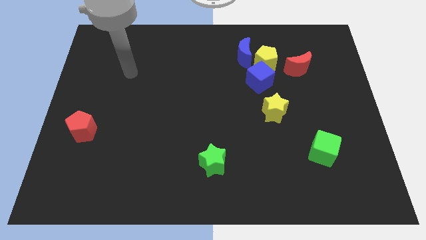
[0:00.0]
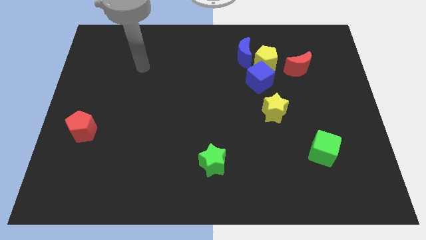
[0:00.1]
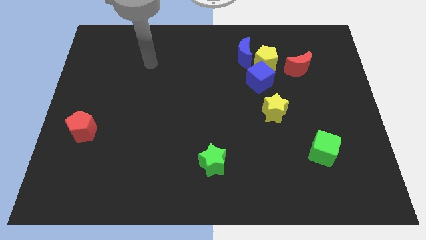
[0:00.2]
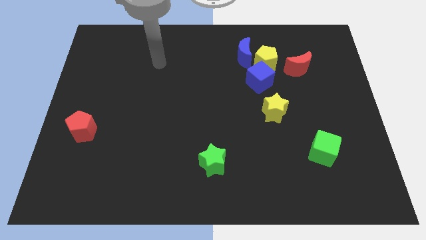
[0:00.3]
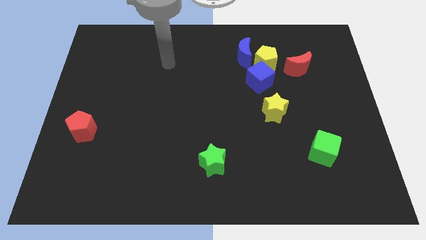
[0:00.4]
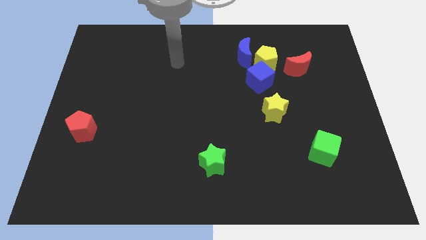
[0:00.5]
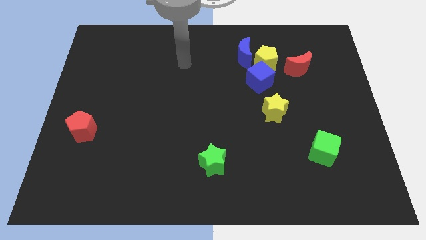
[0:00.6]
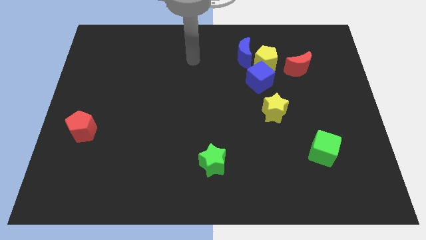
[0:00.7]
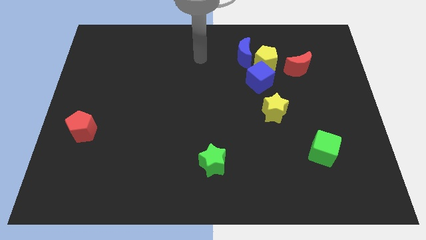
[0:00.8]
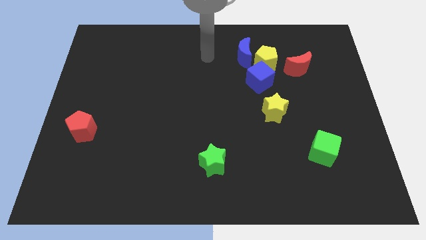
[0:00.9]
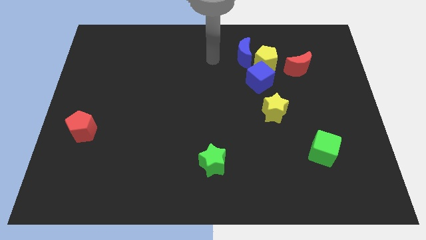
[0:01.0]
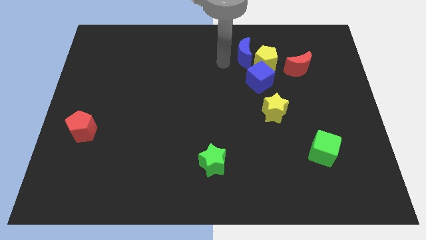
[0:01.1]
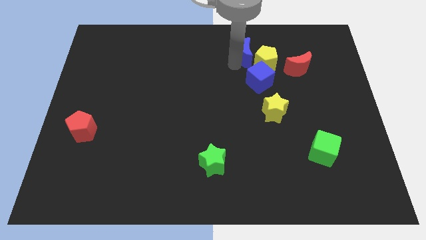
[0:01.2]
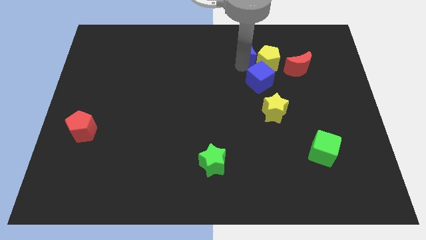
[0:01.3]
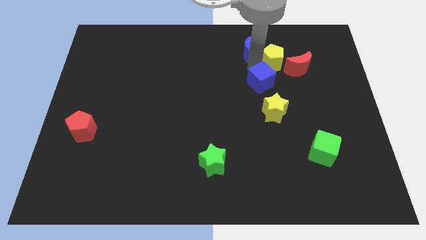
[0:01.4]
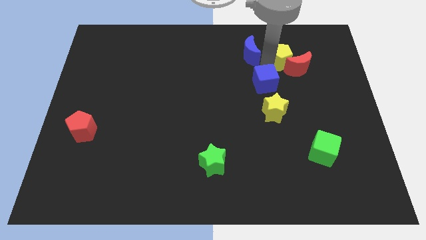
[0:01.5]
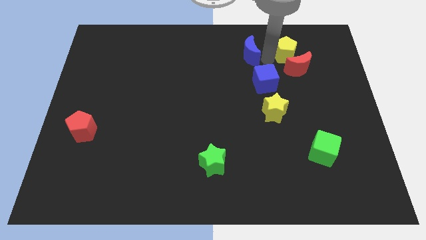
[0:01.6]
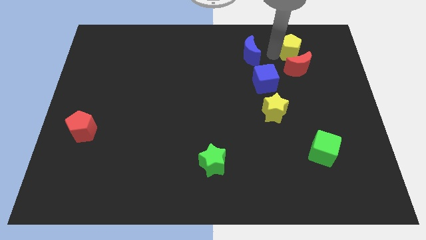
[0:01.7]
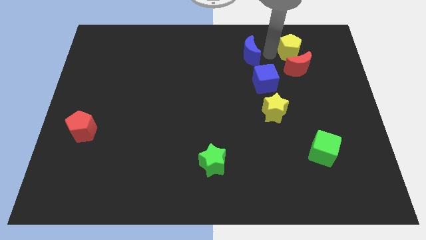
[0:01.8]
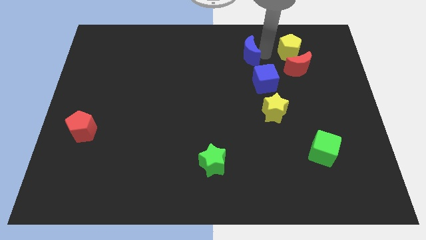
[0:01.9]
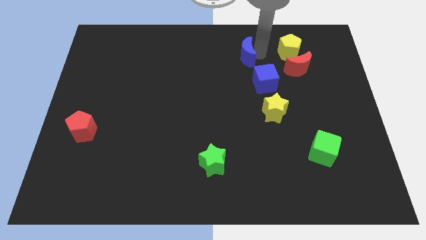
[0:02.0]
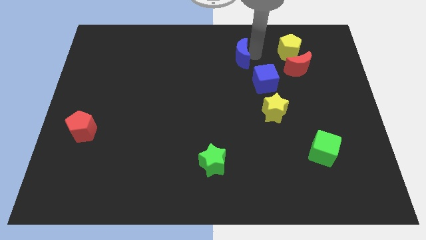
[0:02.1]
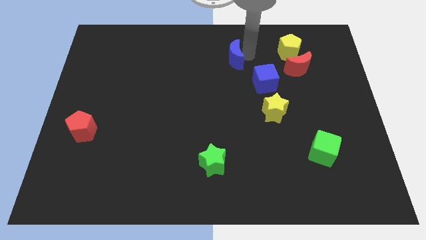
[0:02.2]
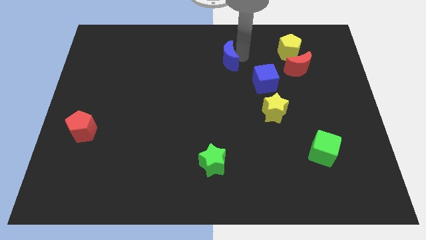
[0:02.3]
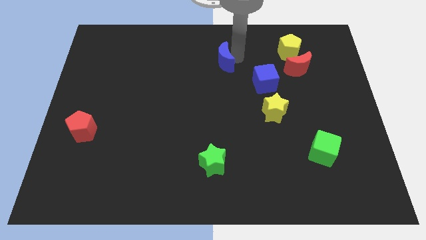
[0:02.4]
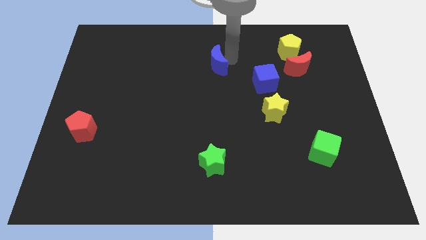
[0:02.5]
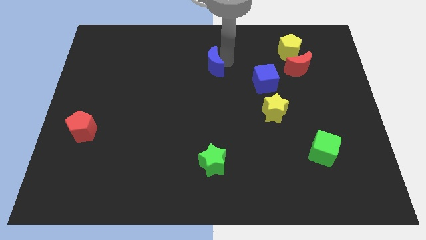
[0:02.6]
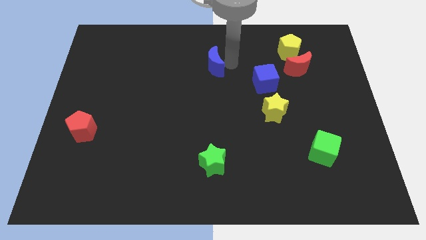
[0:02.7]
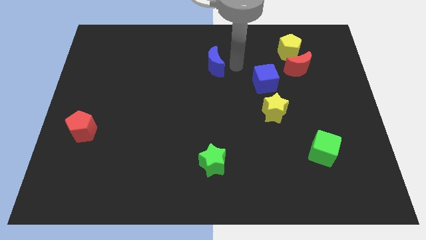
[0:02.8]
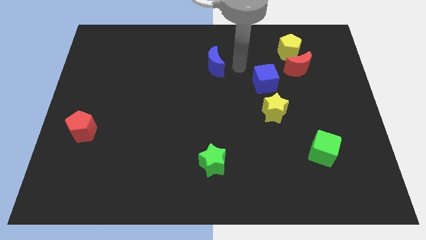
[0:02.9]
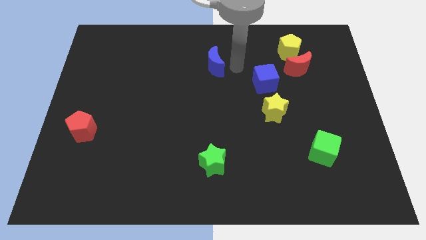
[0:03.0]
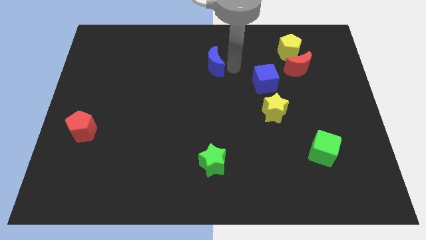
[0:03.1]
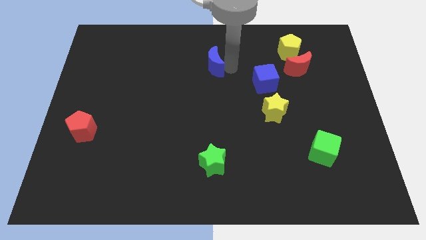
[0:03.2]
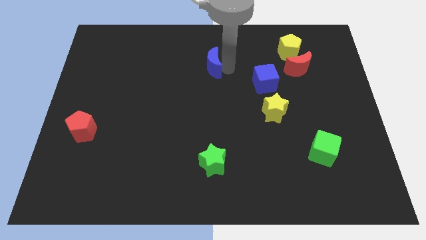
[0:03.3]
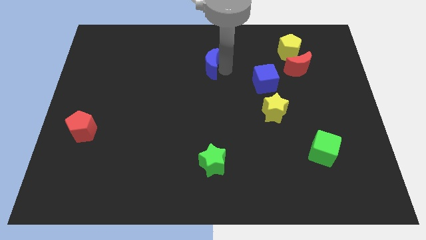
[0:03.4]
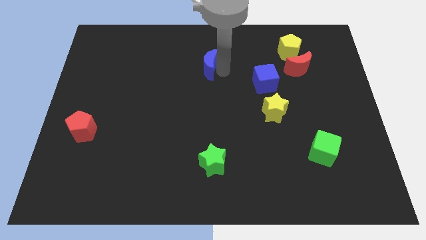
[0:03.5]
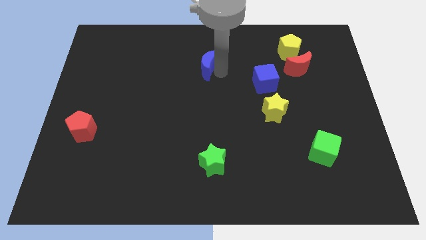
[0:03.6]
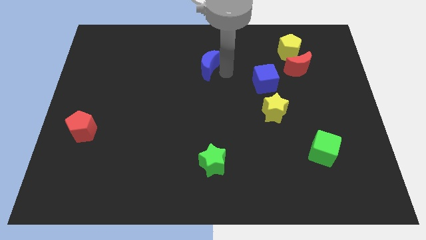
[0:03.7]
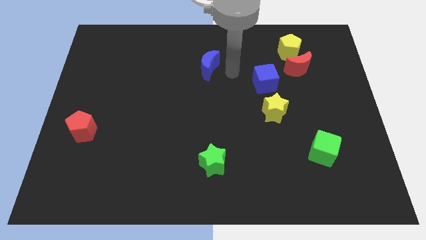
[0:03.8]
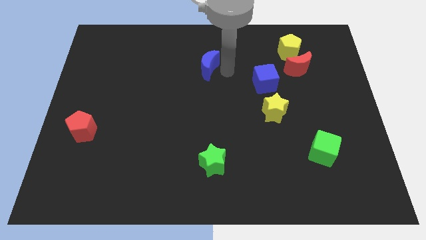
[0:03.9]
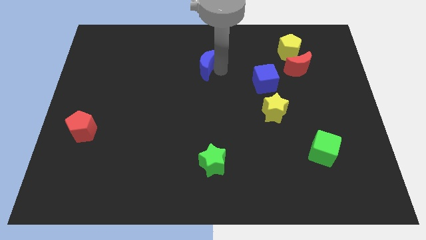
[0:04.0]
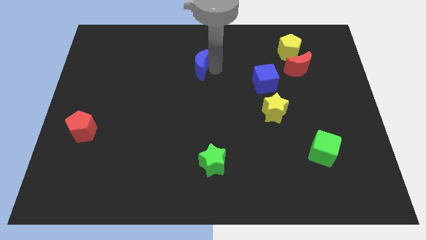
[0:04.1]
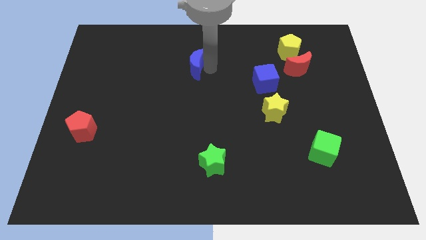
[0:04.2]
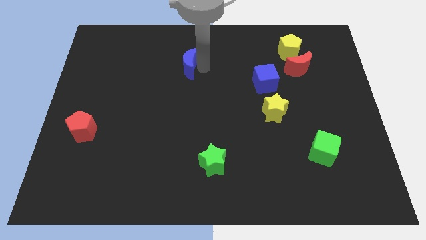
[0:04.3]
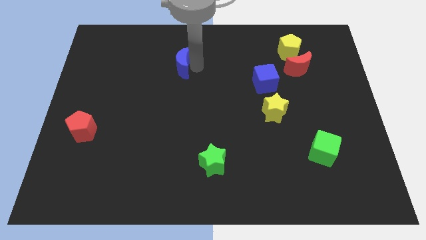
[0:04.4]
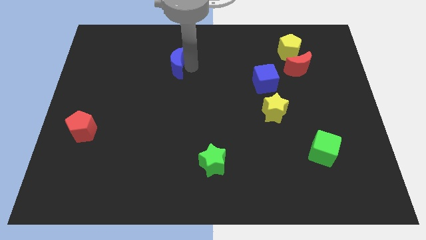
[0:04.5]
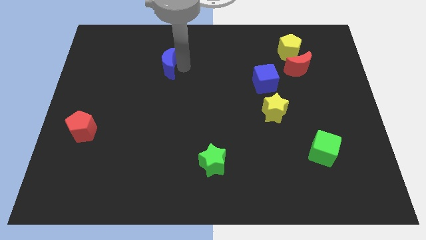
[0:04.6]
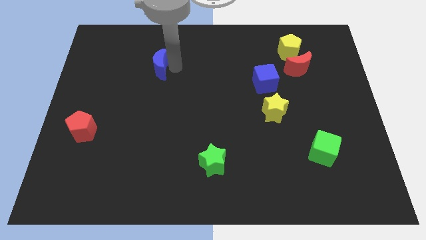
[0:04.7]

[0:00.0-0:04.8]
move the blue moon to the left

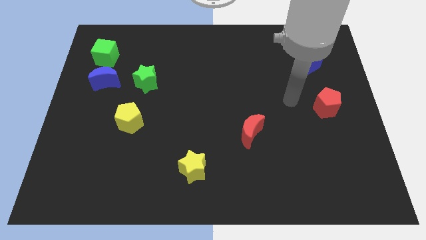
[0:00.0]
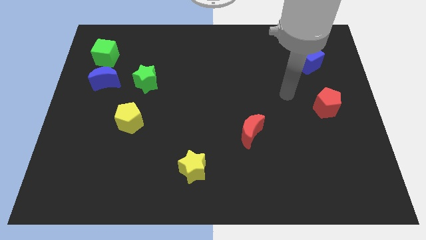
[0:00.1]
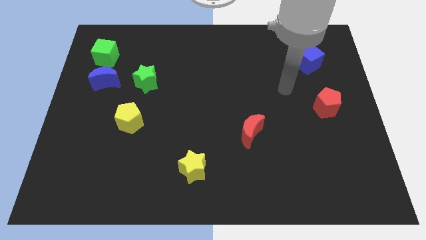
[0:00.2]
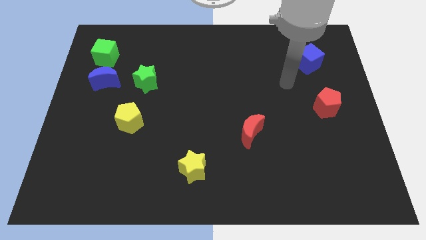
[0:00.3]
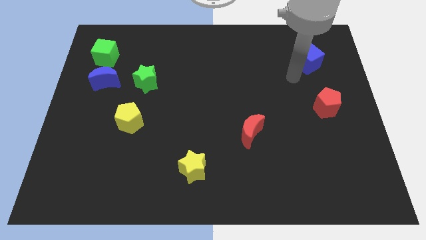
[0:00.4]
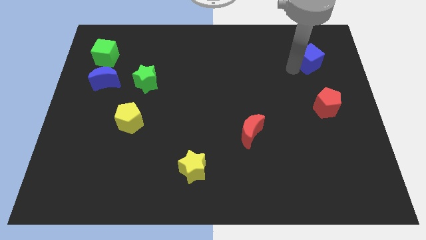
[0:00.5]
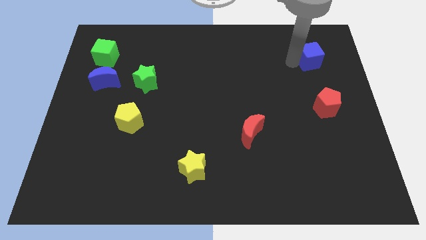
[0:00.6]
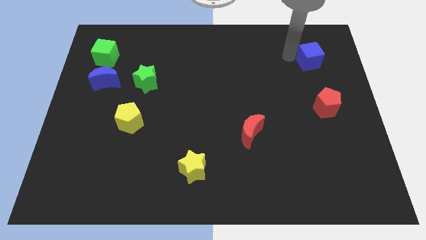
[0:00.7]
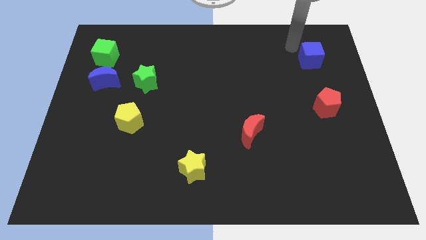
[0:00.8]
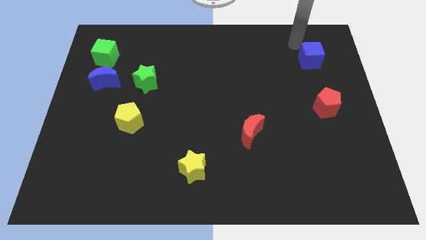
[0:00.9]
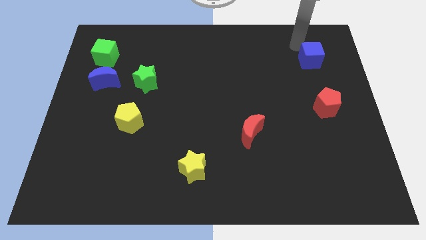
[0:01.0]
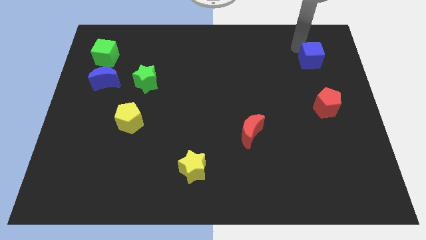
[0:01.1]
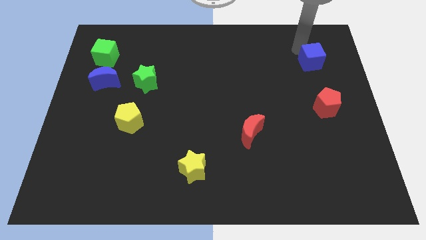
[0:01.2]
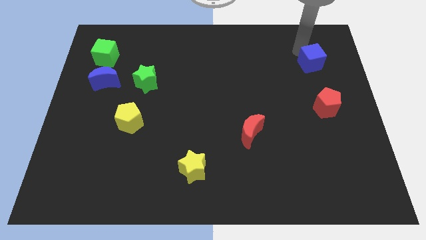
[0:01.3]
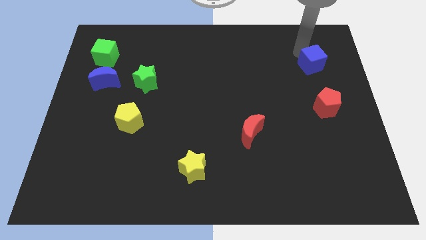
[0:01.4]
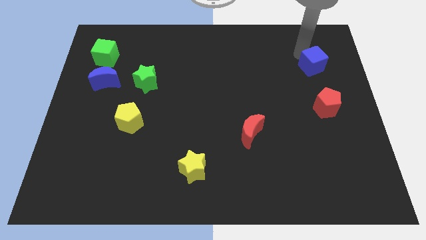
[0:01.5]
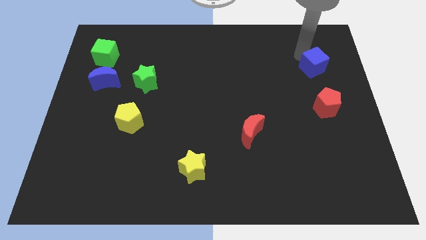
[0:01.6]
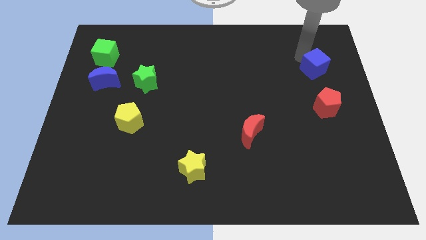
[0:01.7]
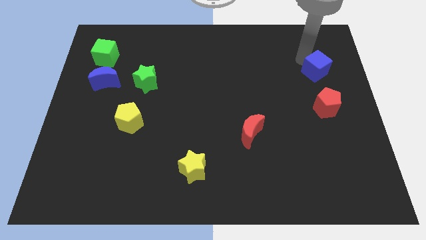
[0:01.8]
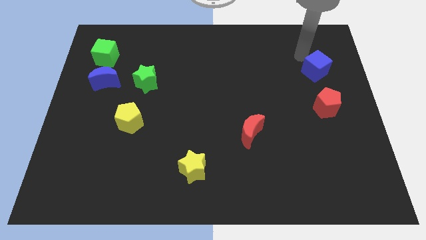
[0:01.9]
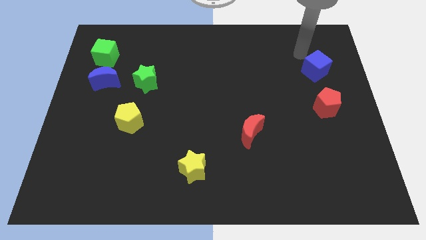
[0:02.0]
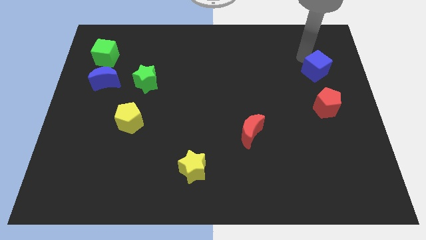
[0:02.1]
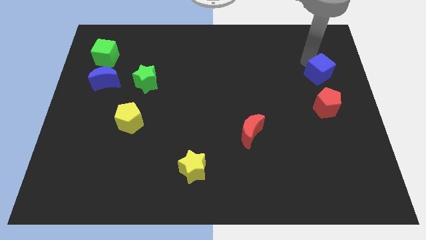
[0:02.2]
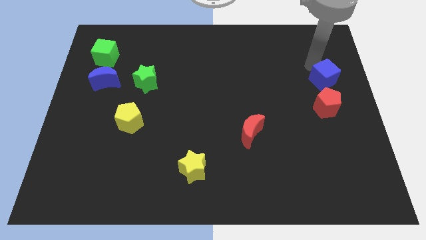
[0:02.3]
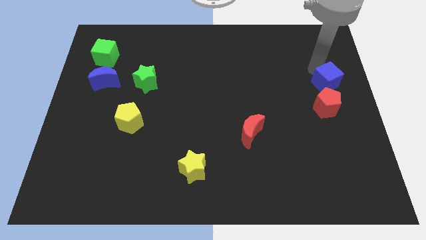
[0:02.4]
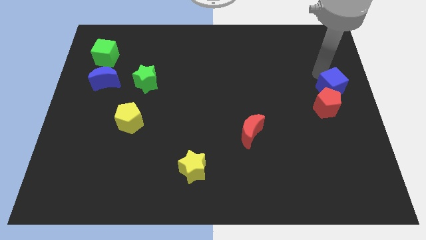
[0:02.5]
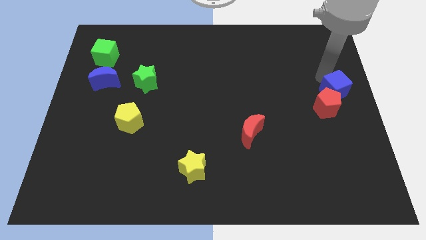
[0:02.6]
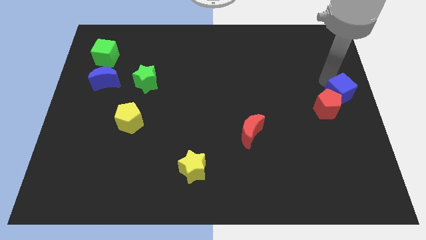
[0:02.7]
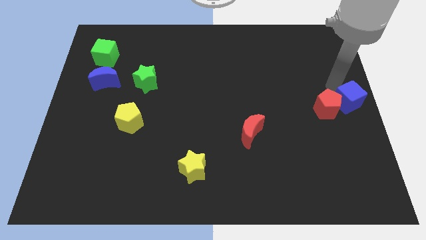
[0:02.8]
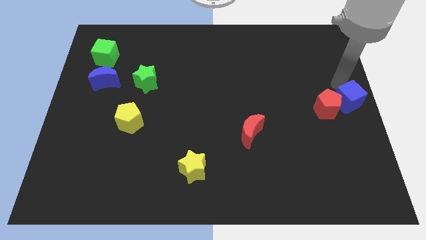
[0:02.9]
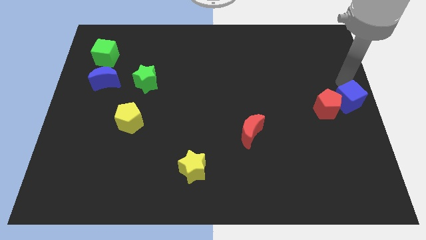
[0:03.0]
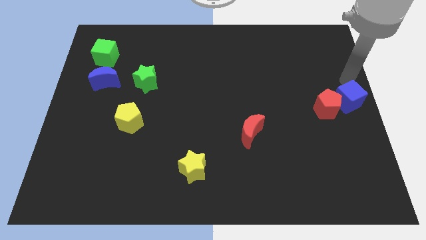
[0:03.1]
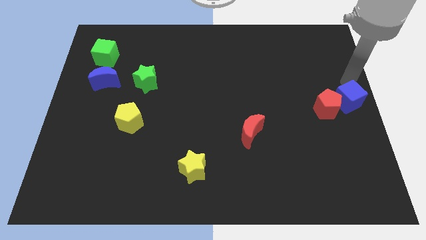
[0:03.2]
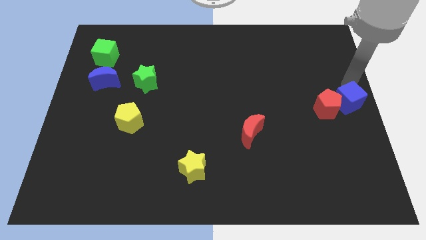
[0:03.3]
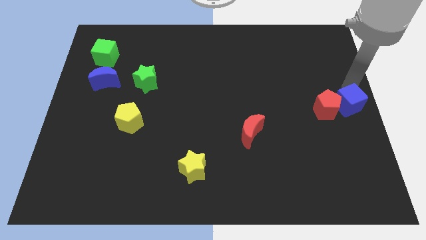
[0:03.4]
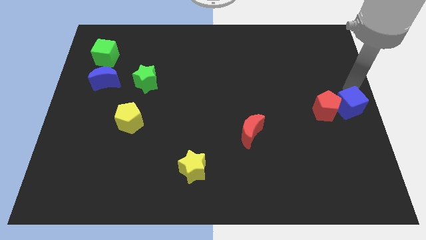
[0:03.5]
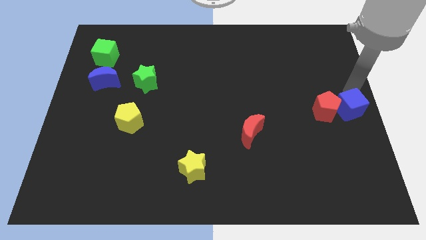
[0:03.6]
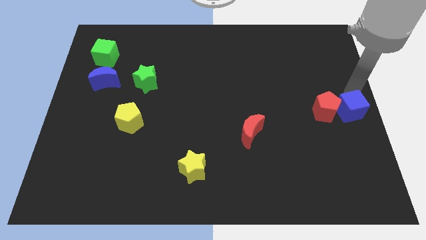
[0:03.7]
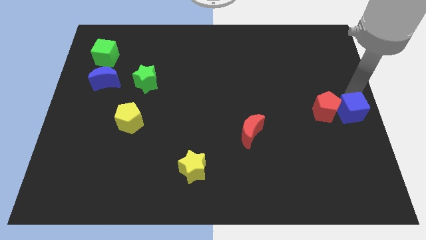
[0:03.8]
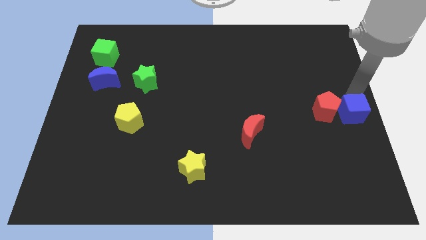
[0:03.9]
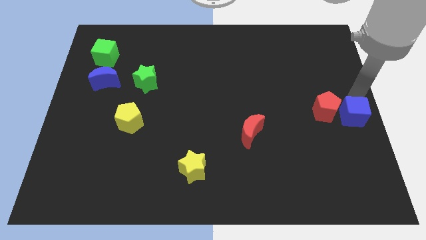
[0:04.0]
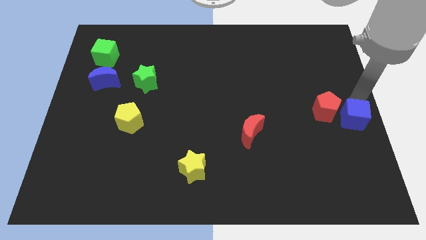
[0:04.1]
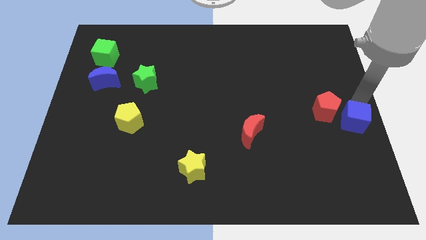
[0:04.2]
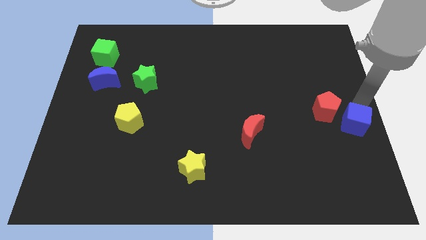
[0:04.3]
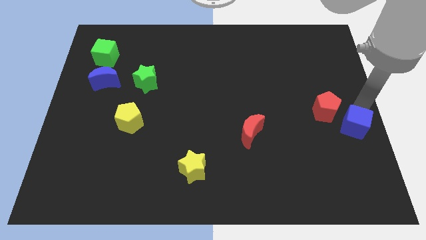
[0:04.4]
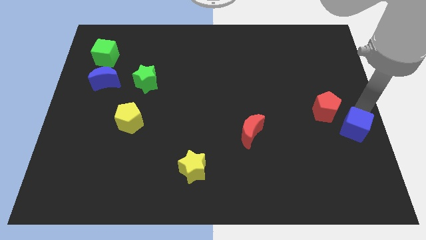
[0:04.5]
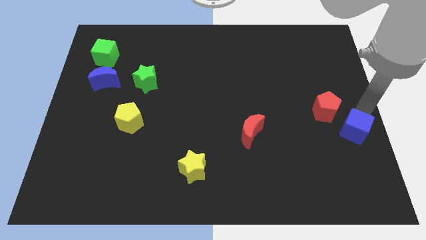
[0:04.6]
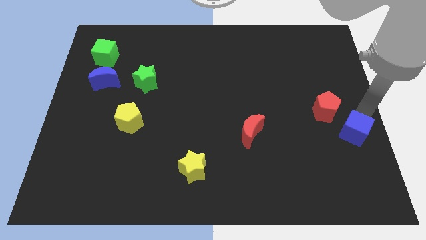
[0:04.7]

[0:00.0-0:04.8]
push the blue cube down
